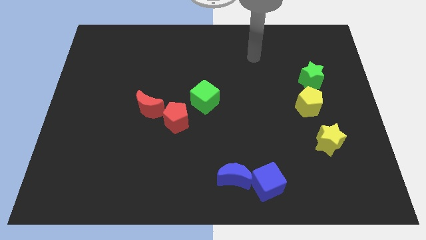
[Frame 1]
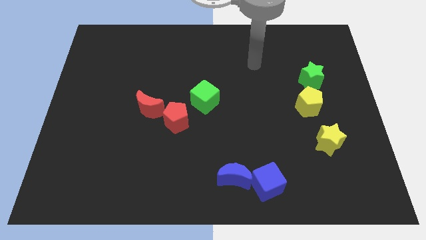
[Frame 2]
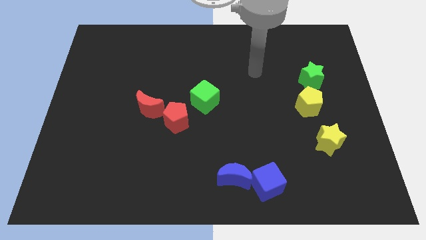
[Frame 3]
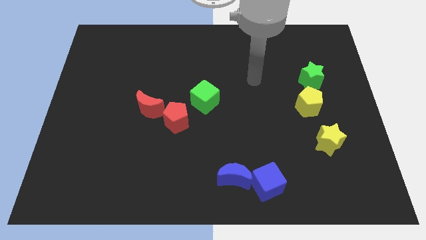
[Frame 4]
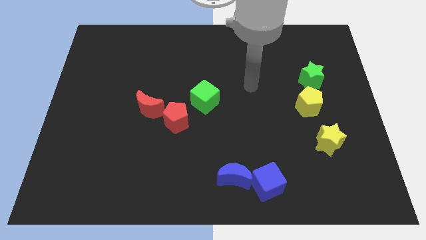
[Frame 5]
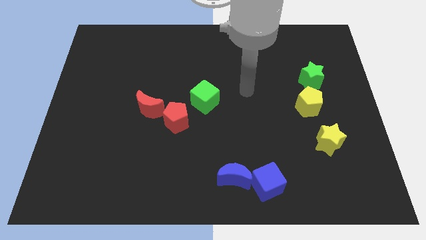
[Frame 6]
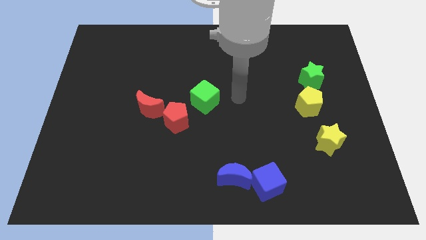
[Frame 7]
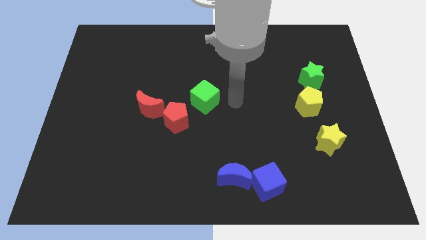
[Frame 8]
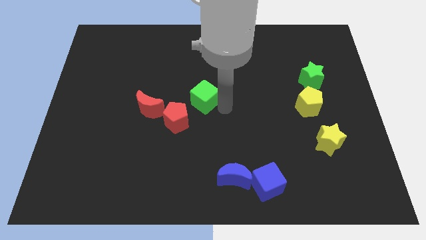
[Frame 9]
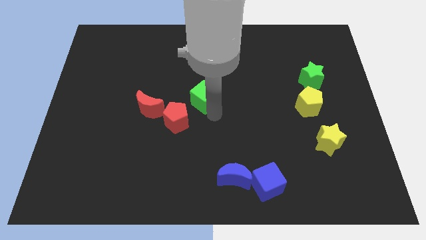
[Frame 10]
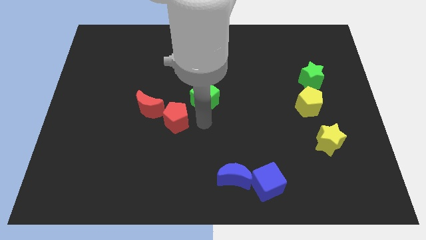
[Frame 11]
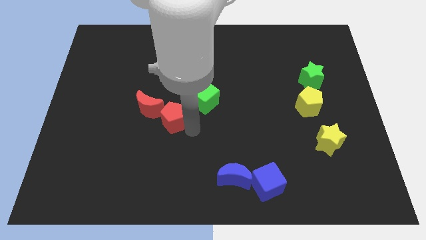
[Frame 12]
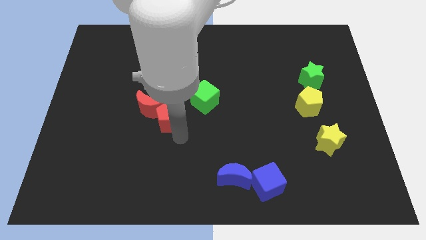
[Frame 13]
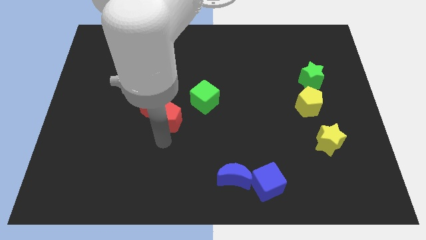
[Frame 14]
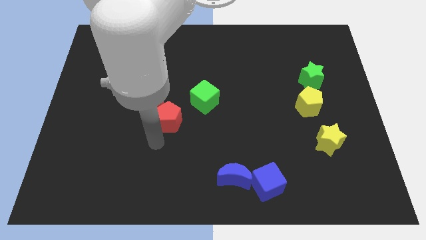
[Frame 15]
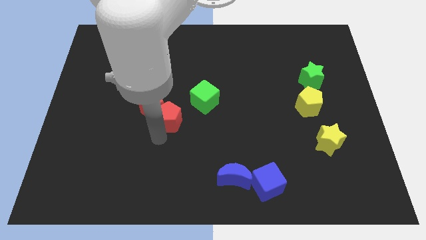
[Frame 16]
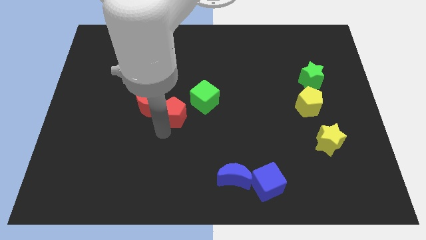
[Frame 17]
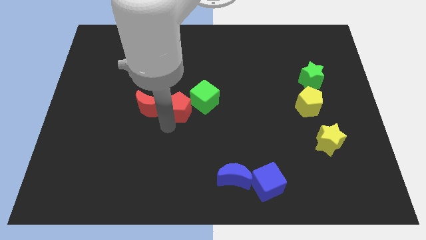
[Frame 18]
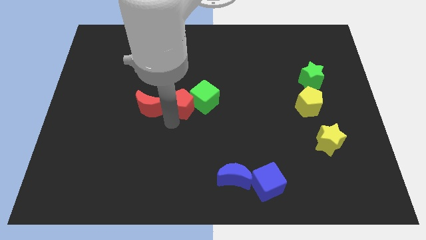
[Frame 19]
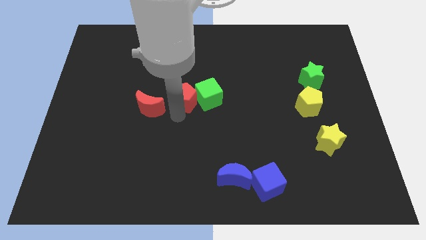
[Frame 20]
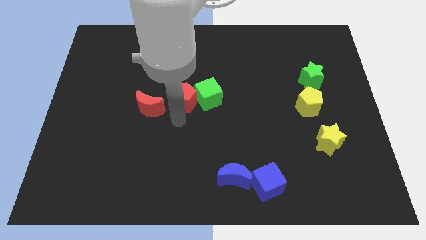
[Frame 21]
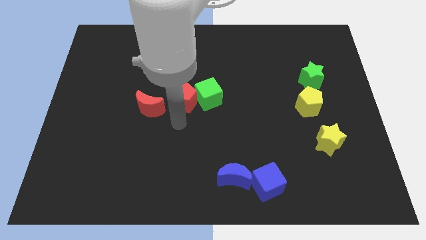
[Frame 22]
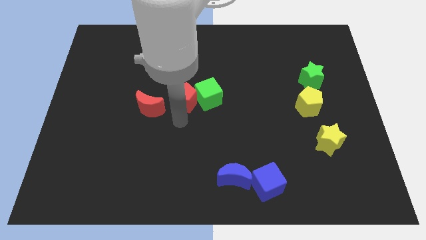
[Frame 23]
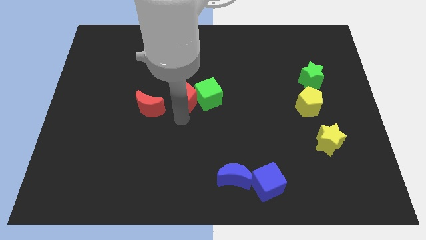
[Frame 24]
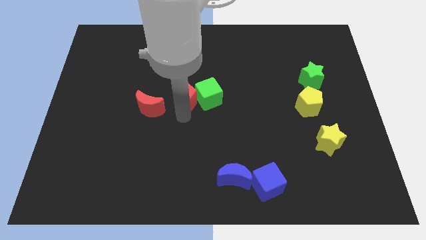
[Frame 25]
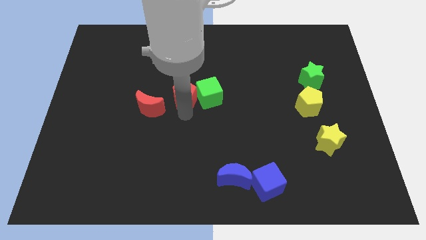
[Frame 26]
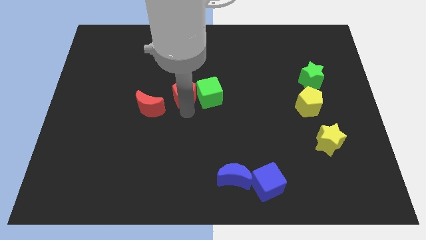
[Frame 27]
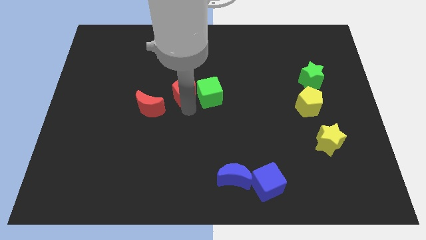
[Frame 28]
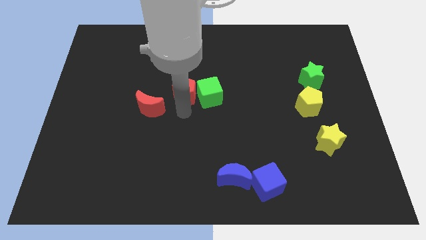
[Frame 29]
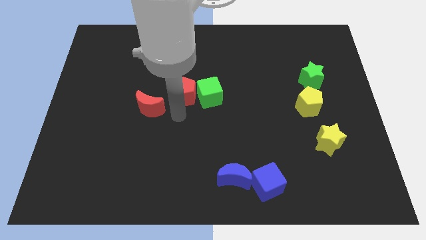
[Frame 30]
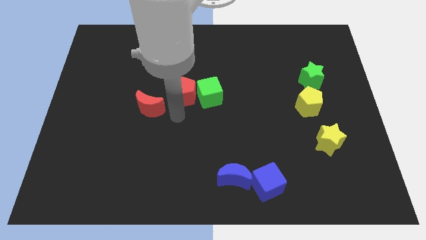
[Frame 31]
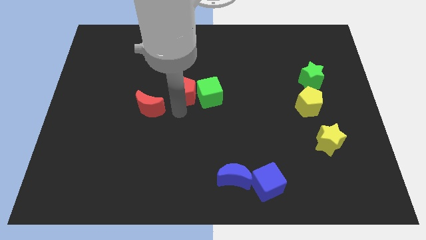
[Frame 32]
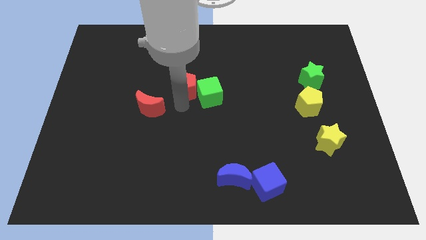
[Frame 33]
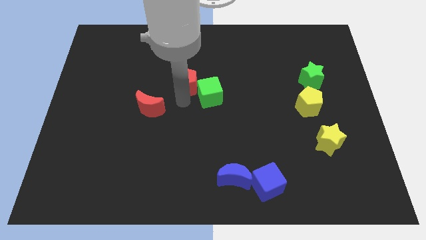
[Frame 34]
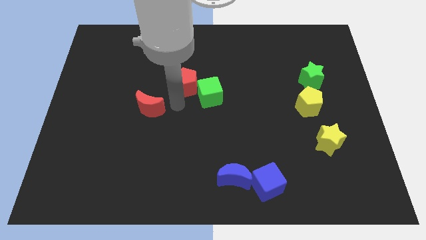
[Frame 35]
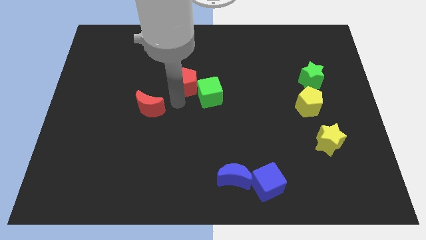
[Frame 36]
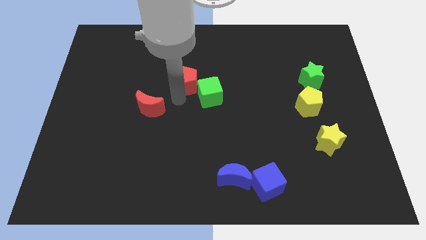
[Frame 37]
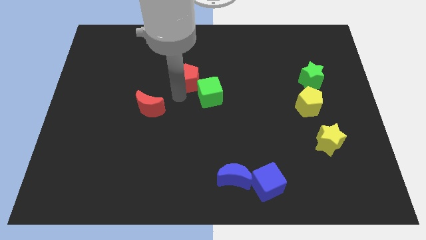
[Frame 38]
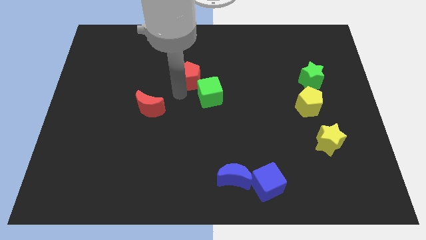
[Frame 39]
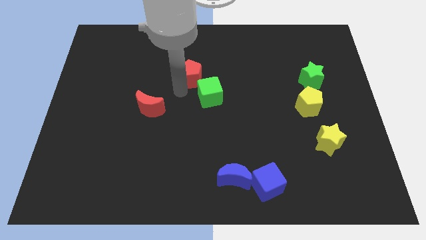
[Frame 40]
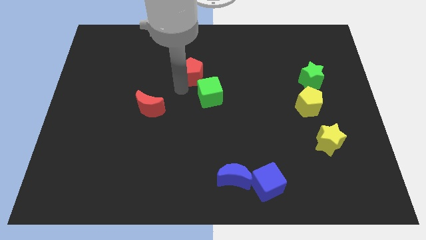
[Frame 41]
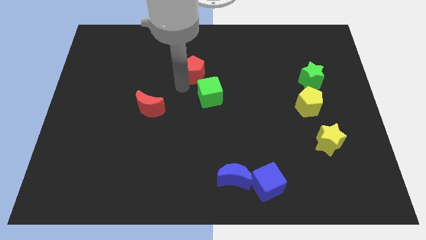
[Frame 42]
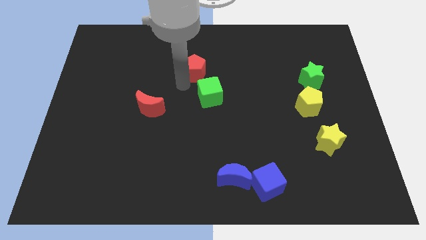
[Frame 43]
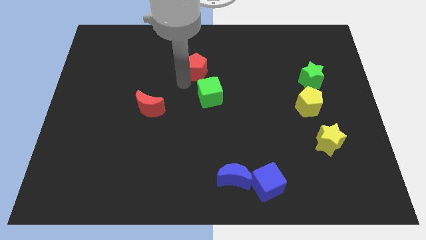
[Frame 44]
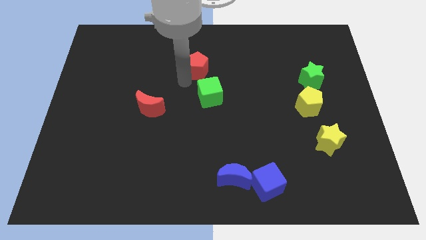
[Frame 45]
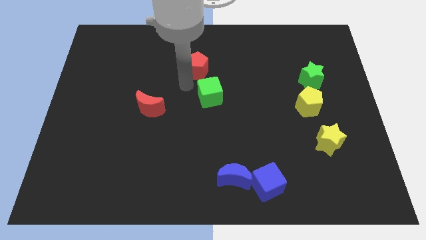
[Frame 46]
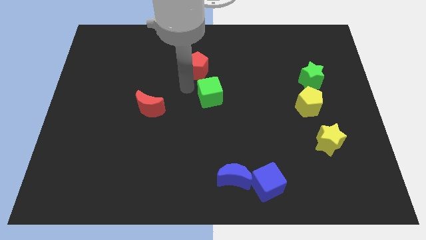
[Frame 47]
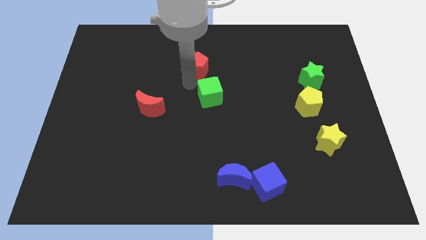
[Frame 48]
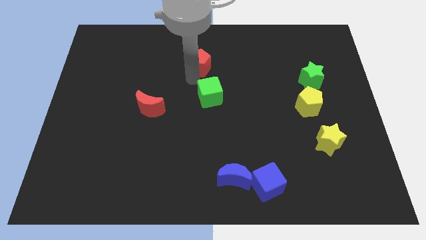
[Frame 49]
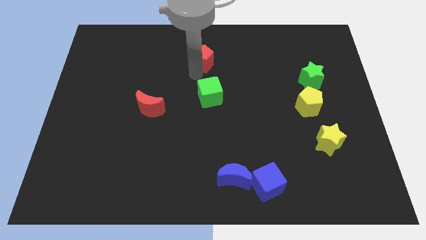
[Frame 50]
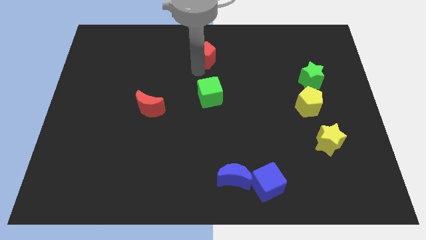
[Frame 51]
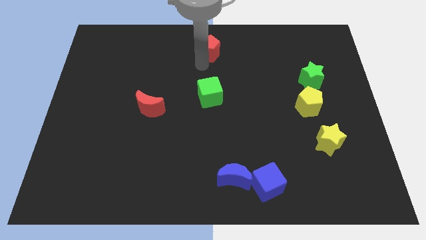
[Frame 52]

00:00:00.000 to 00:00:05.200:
push the red pentagon to the top

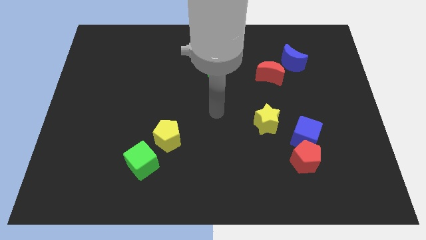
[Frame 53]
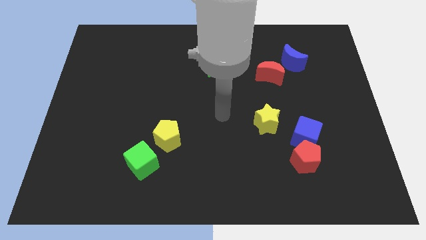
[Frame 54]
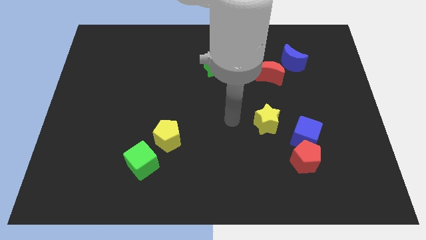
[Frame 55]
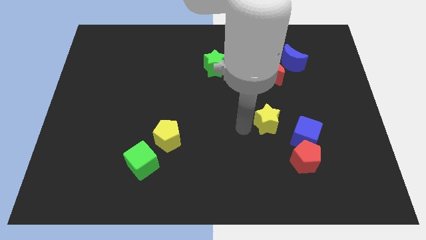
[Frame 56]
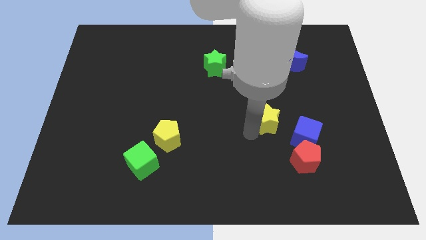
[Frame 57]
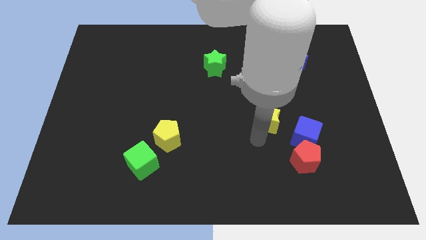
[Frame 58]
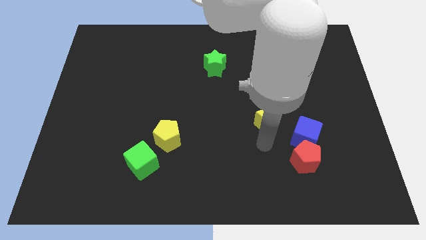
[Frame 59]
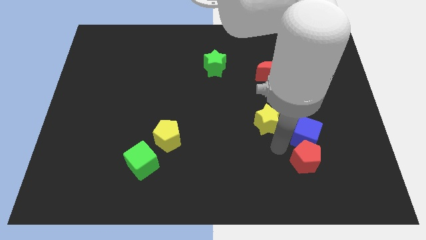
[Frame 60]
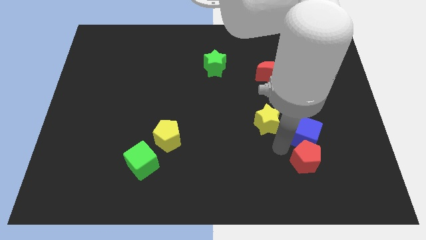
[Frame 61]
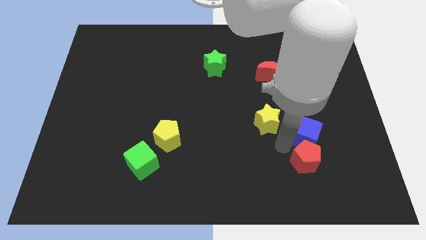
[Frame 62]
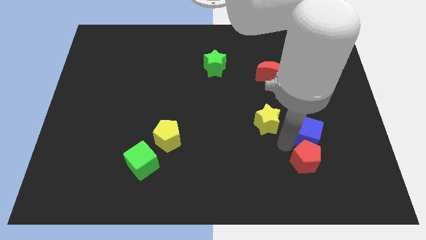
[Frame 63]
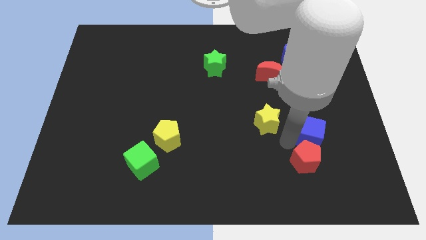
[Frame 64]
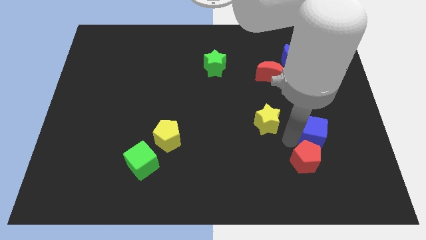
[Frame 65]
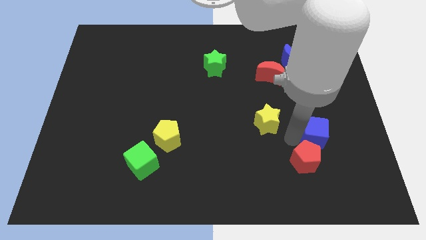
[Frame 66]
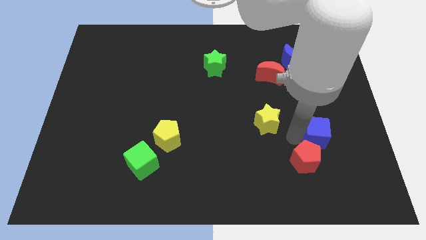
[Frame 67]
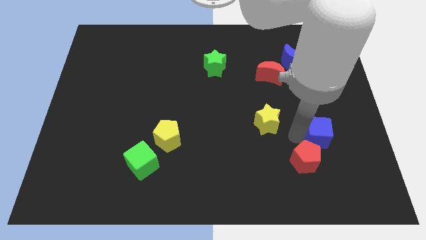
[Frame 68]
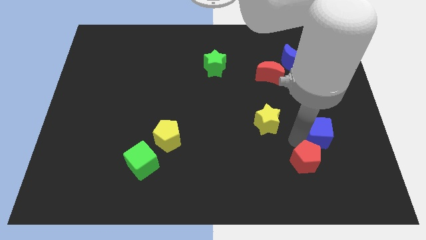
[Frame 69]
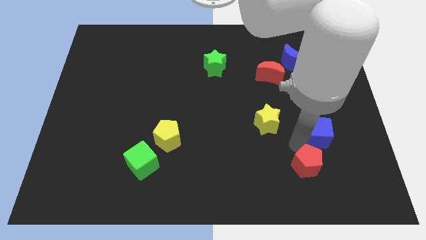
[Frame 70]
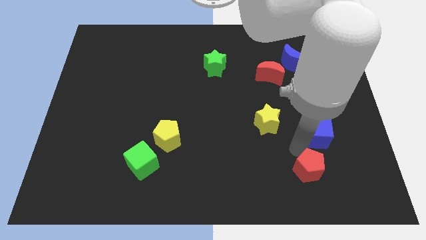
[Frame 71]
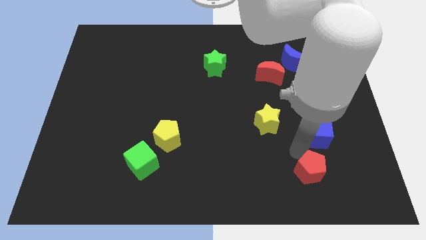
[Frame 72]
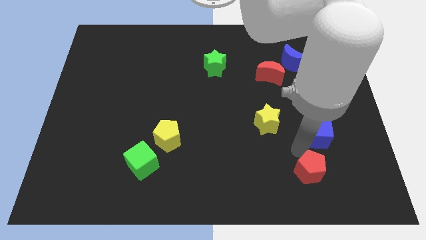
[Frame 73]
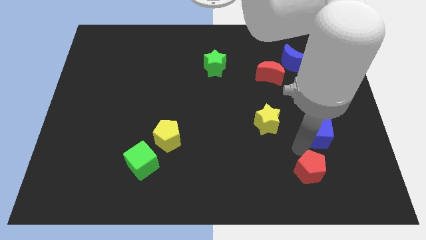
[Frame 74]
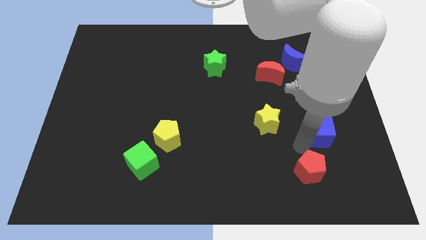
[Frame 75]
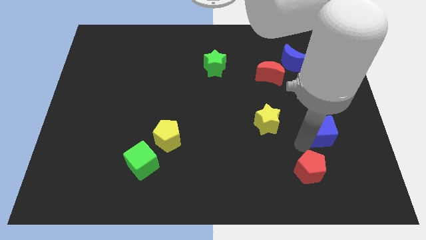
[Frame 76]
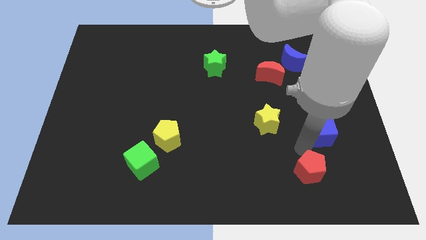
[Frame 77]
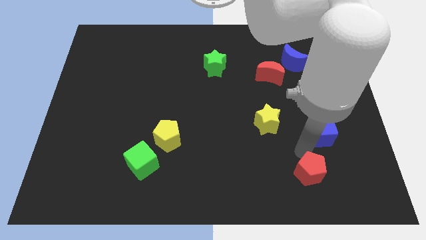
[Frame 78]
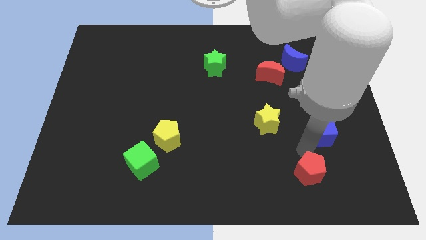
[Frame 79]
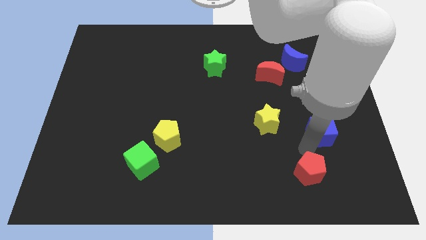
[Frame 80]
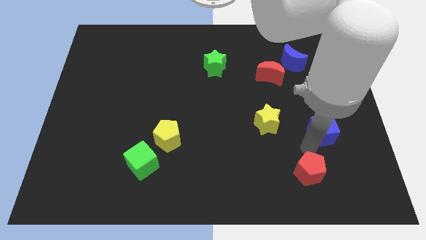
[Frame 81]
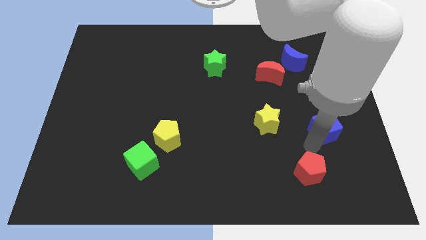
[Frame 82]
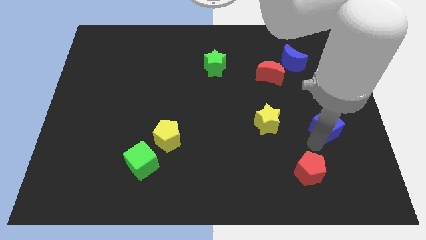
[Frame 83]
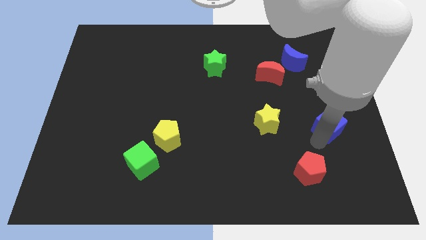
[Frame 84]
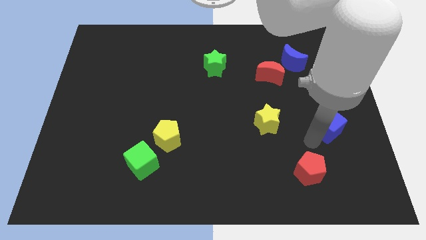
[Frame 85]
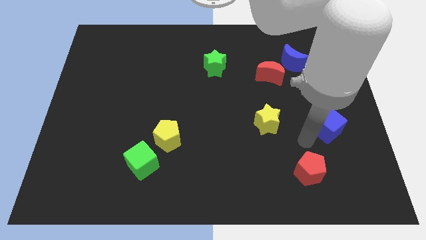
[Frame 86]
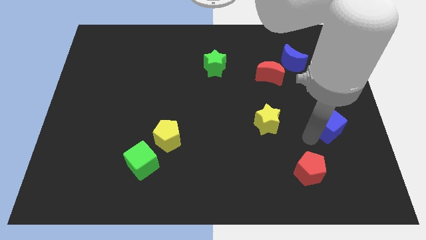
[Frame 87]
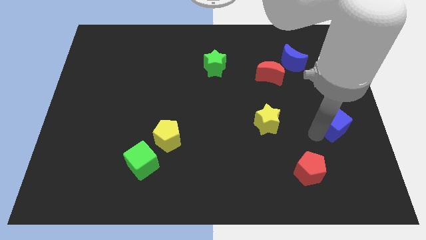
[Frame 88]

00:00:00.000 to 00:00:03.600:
move the blue cube to the center right
